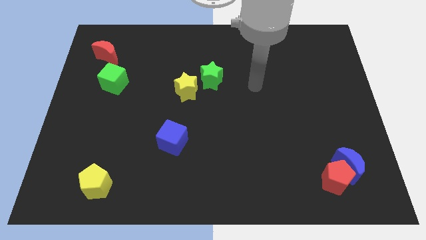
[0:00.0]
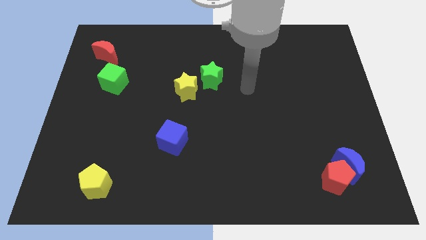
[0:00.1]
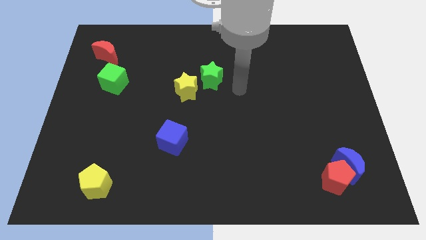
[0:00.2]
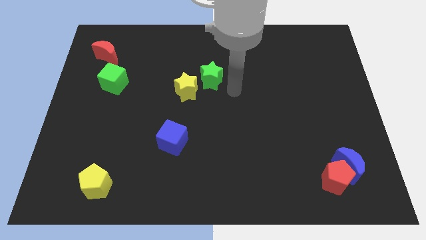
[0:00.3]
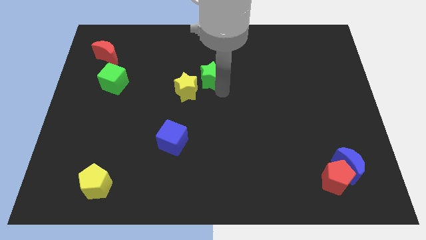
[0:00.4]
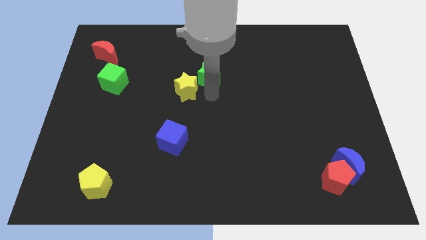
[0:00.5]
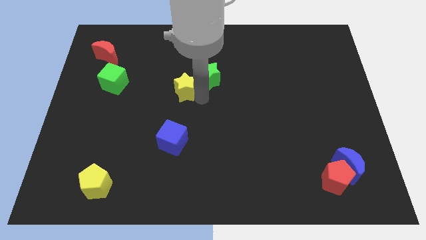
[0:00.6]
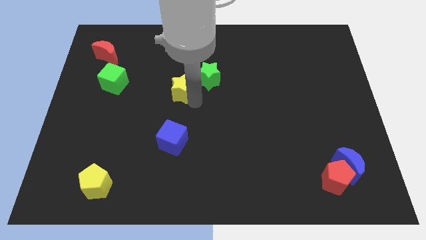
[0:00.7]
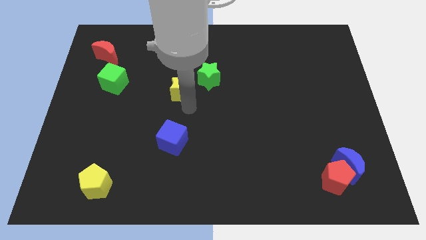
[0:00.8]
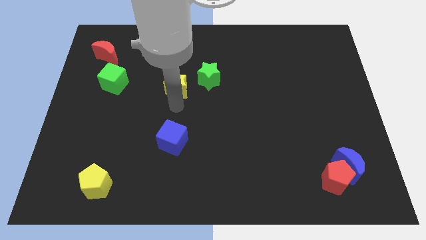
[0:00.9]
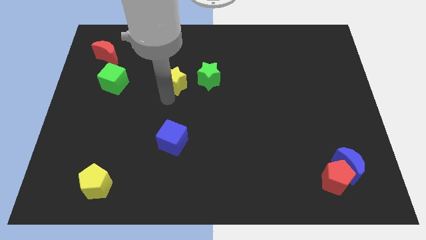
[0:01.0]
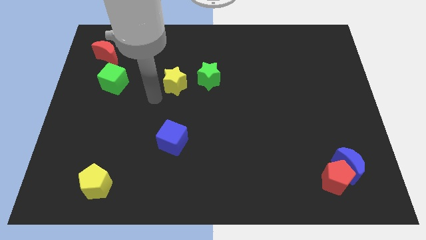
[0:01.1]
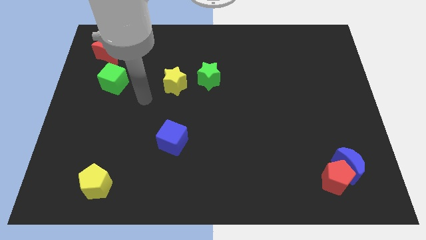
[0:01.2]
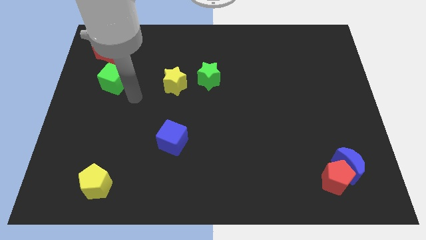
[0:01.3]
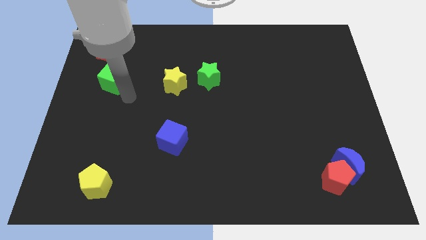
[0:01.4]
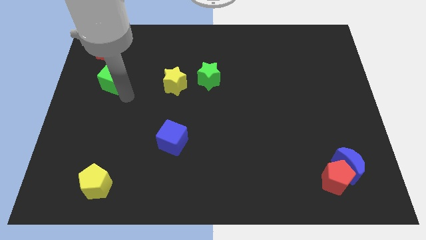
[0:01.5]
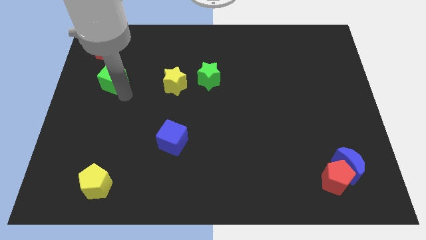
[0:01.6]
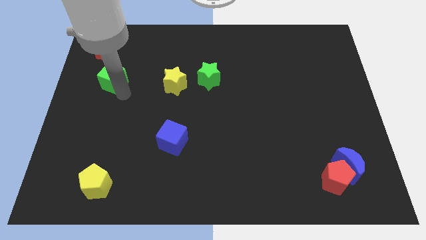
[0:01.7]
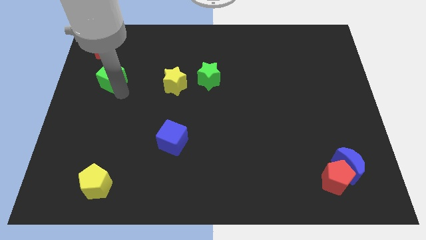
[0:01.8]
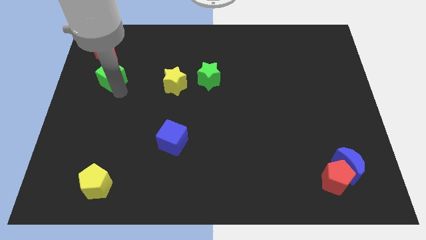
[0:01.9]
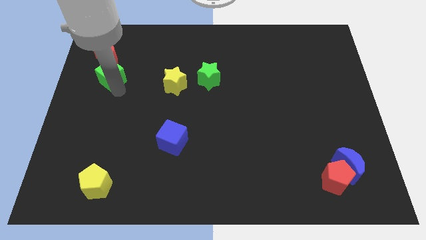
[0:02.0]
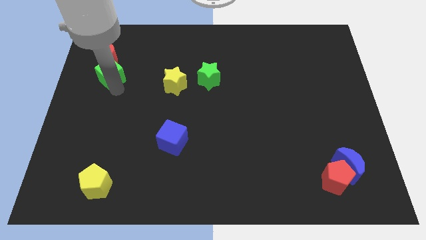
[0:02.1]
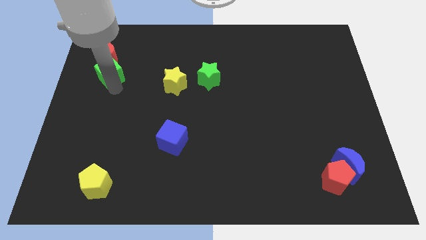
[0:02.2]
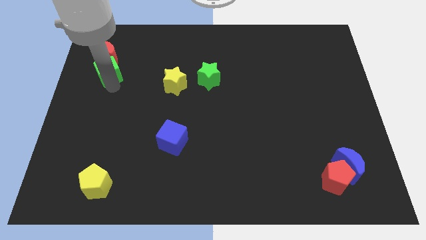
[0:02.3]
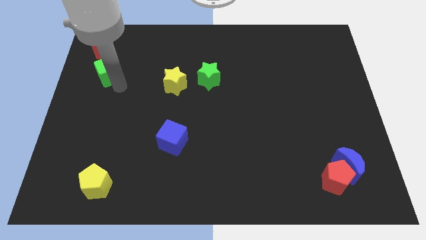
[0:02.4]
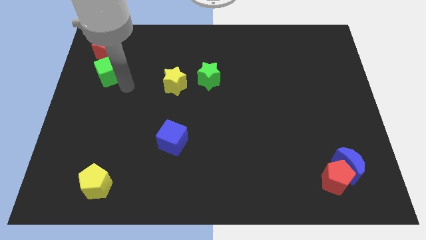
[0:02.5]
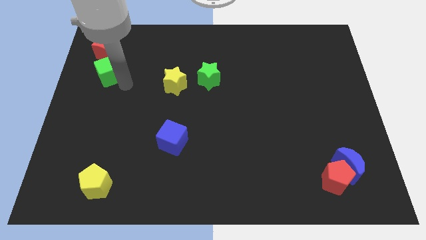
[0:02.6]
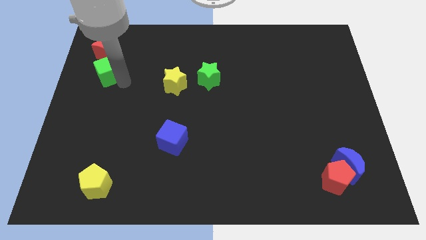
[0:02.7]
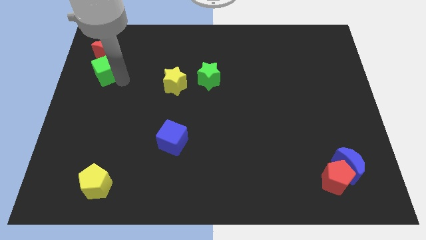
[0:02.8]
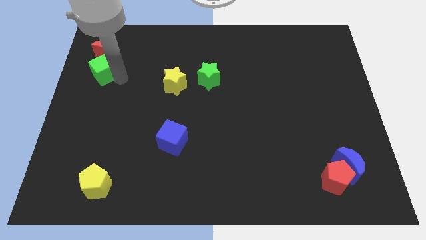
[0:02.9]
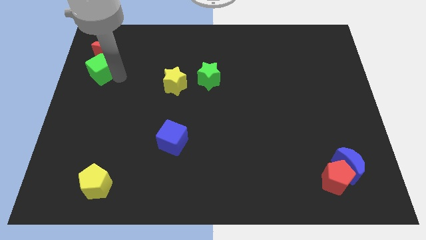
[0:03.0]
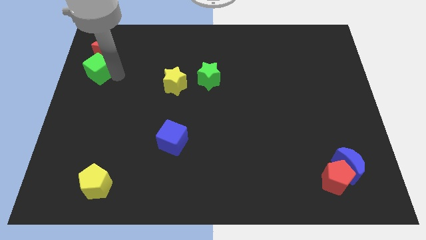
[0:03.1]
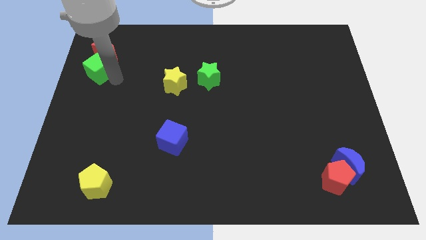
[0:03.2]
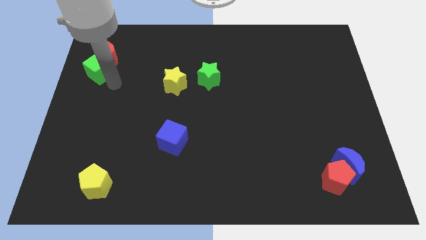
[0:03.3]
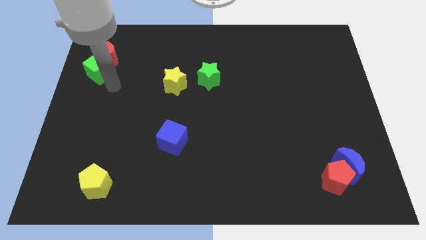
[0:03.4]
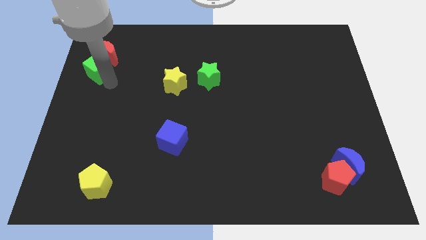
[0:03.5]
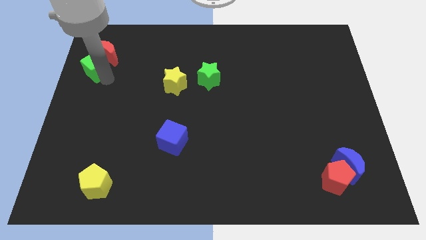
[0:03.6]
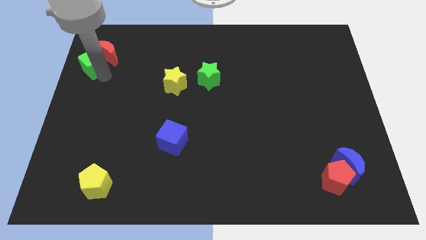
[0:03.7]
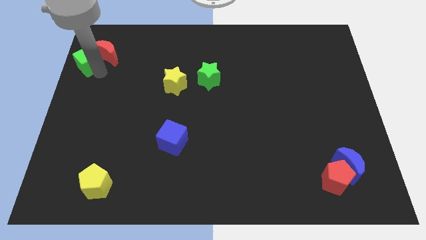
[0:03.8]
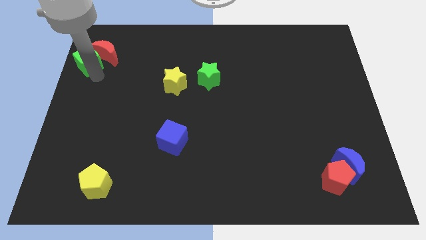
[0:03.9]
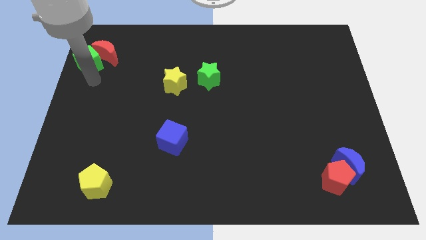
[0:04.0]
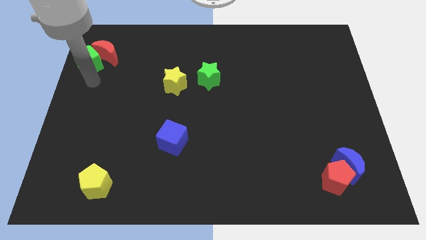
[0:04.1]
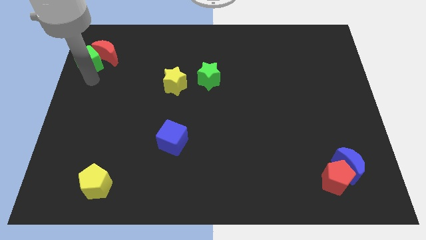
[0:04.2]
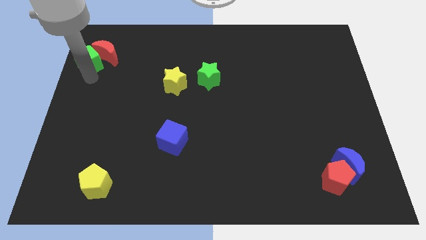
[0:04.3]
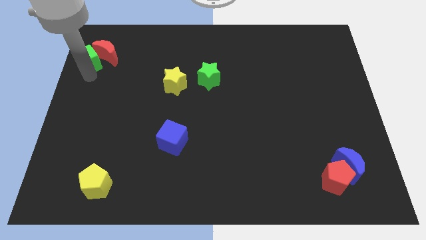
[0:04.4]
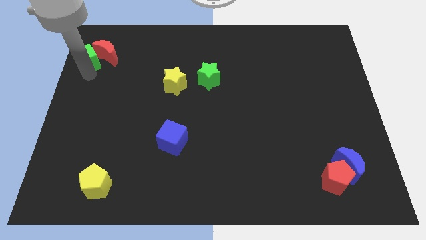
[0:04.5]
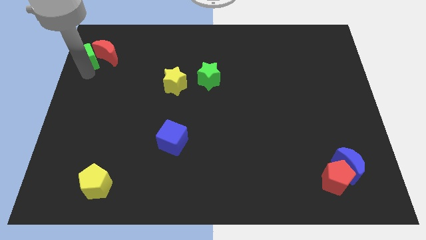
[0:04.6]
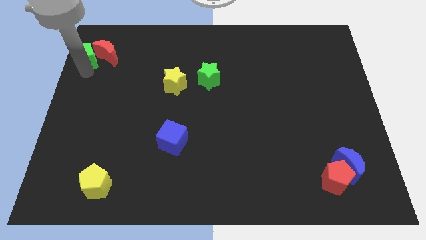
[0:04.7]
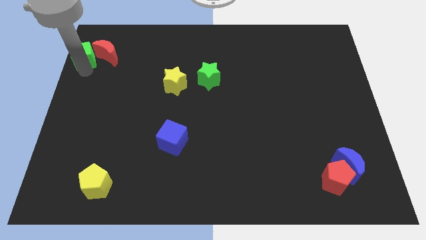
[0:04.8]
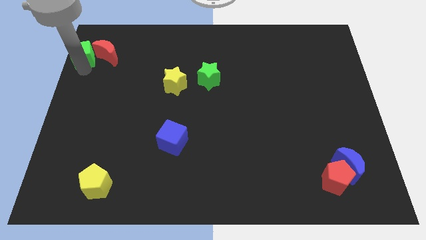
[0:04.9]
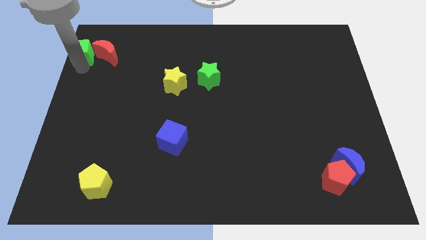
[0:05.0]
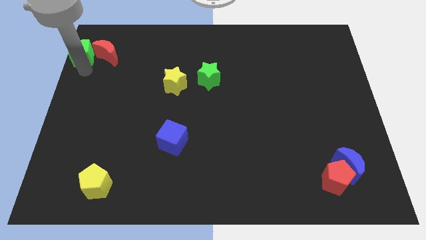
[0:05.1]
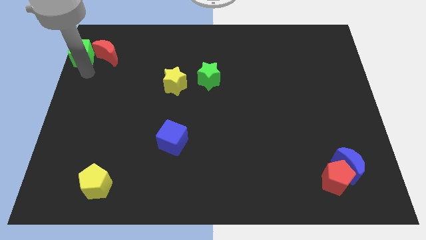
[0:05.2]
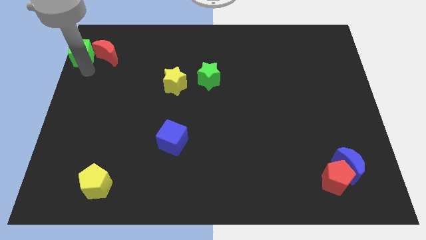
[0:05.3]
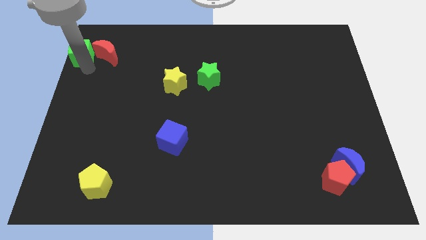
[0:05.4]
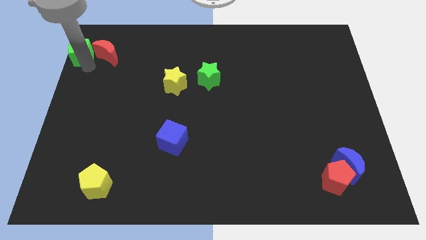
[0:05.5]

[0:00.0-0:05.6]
slide the green cube to the upper left corner

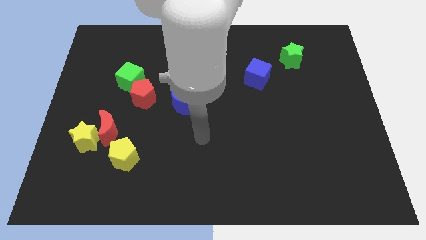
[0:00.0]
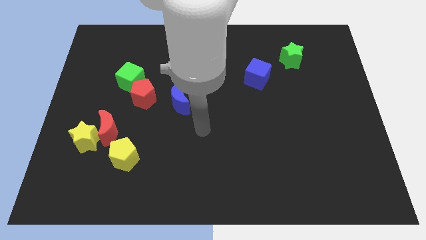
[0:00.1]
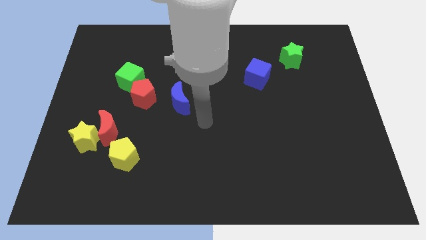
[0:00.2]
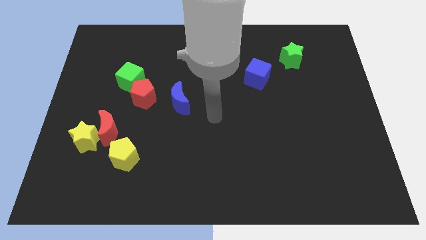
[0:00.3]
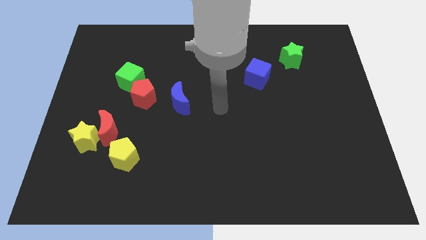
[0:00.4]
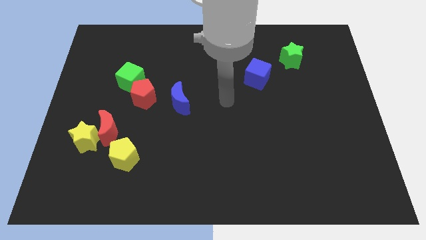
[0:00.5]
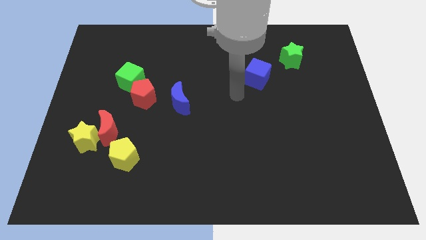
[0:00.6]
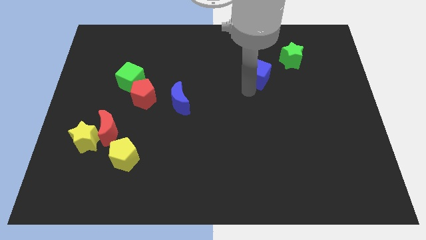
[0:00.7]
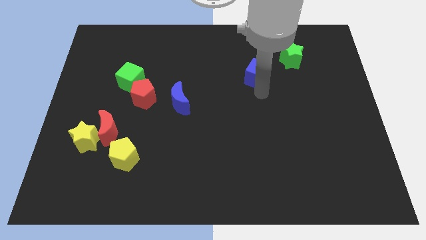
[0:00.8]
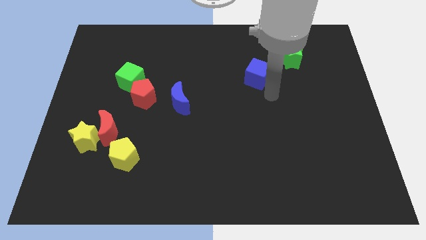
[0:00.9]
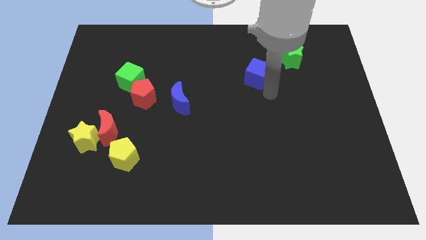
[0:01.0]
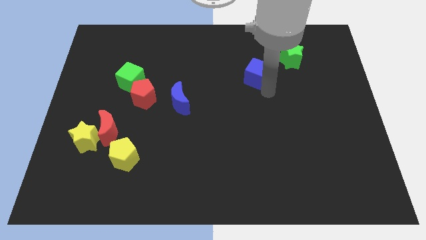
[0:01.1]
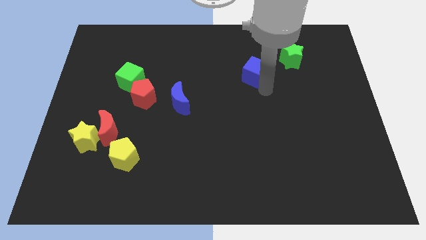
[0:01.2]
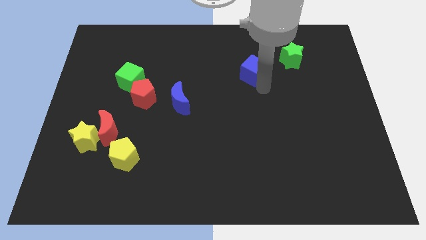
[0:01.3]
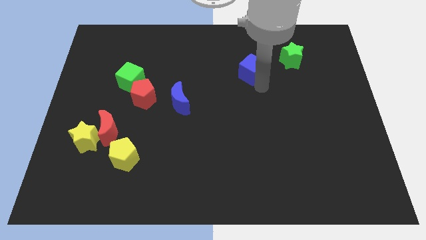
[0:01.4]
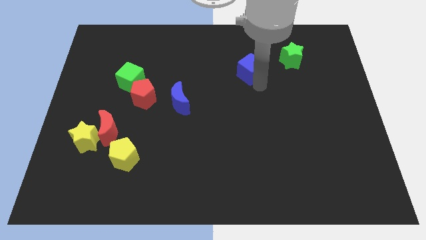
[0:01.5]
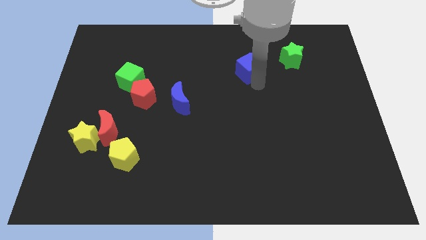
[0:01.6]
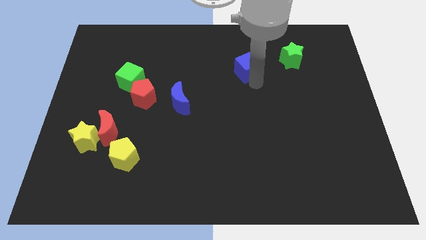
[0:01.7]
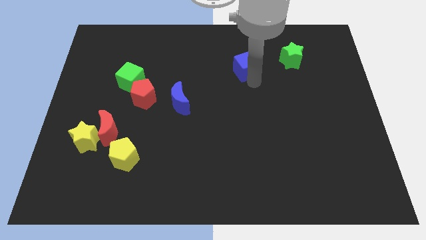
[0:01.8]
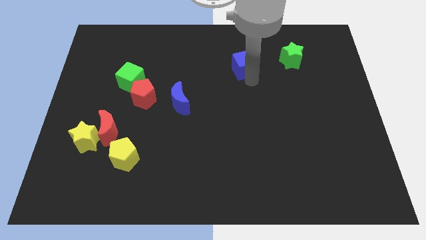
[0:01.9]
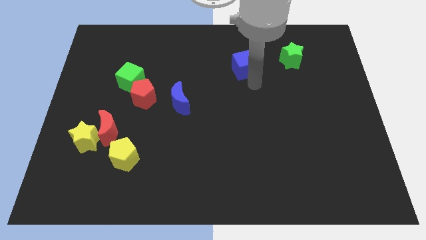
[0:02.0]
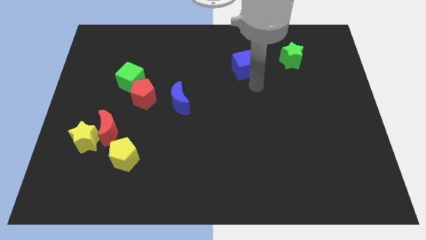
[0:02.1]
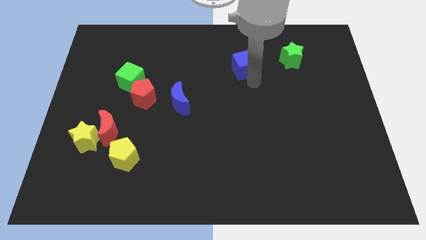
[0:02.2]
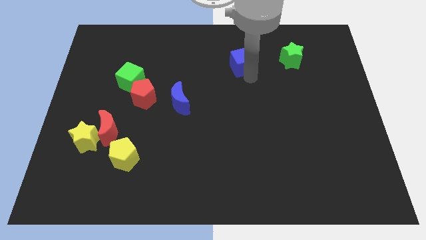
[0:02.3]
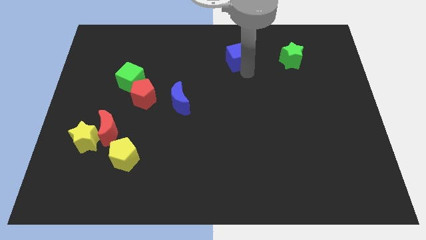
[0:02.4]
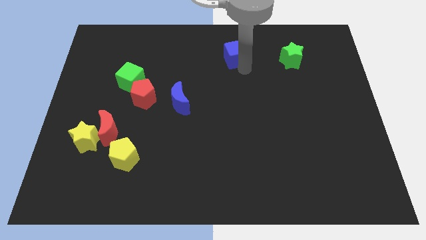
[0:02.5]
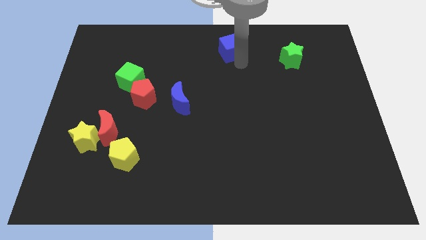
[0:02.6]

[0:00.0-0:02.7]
slide the blue cube to the top

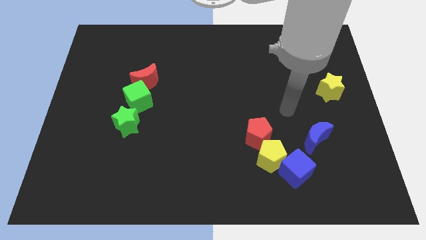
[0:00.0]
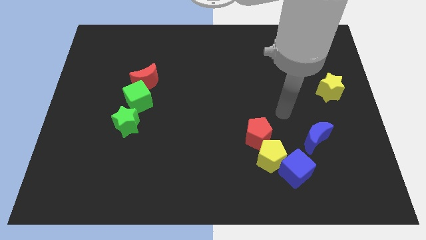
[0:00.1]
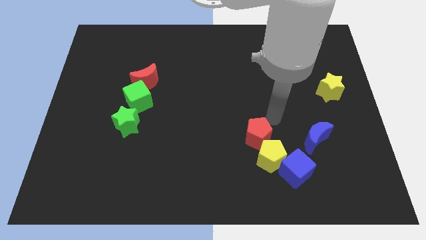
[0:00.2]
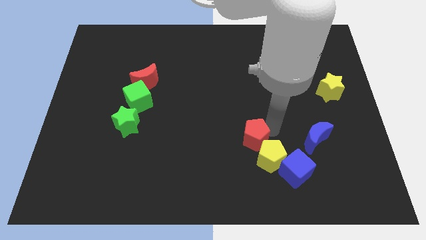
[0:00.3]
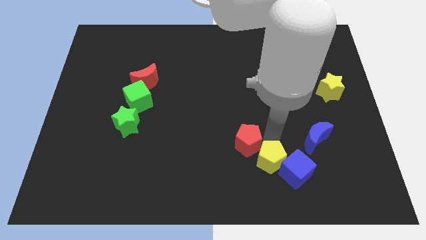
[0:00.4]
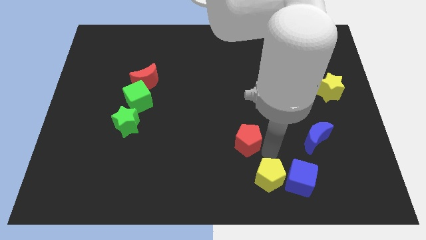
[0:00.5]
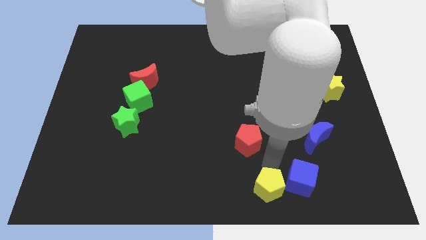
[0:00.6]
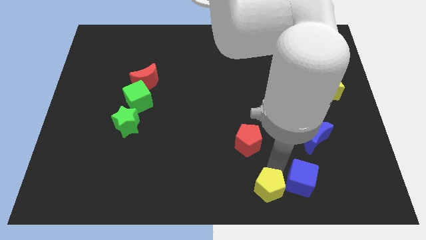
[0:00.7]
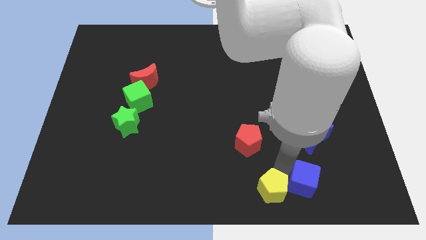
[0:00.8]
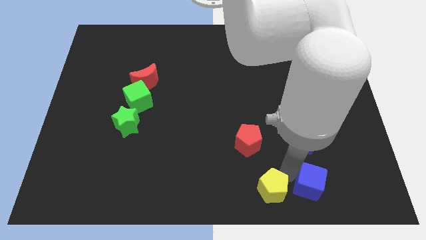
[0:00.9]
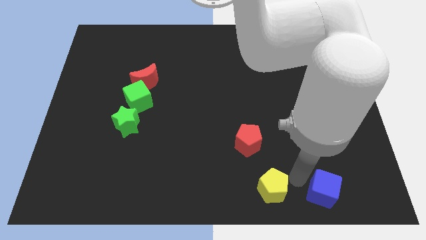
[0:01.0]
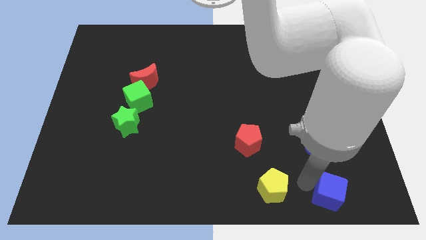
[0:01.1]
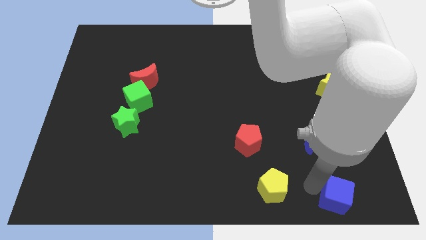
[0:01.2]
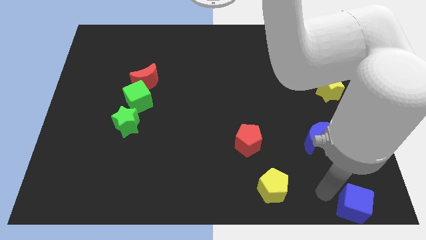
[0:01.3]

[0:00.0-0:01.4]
put the blue cube to the bottom right corner
